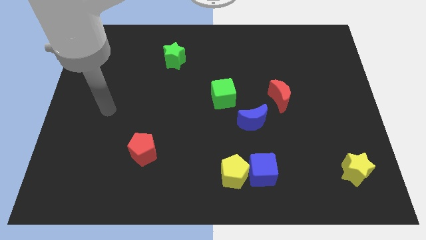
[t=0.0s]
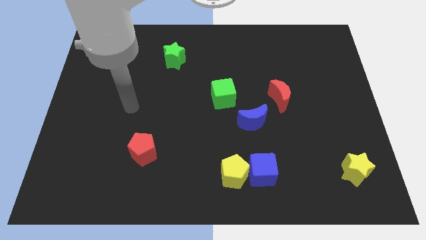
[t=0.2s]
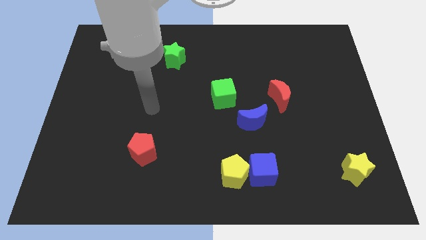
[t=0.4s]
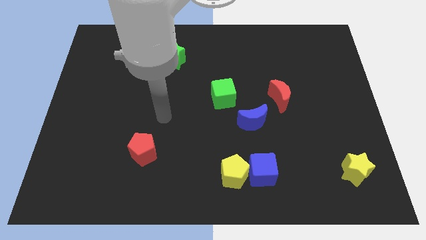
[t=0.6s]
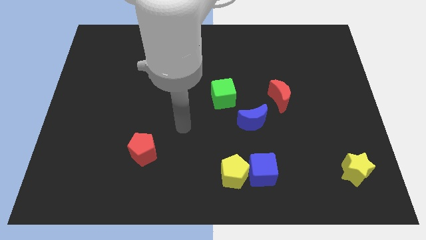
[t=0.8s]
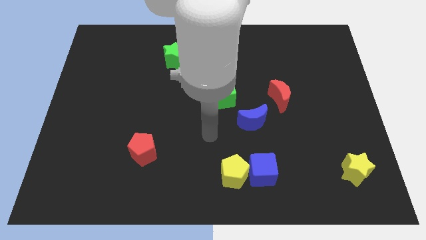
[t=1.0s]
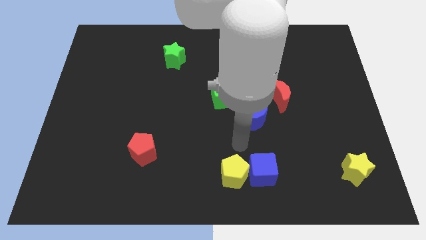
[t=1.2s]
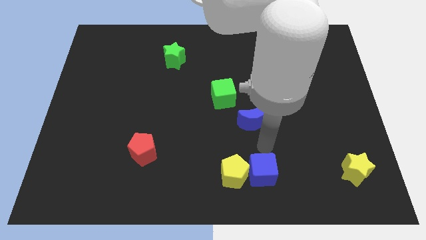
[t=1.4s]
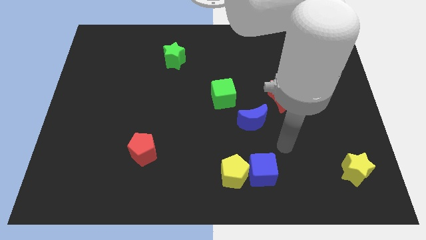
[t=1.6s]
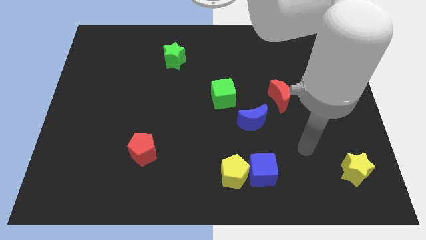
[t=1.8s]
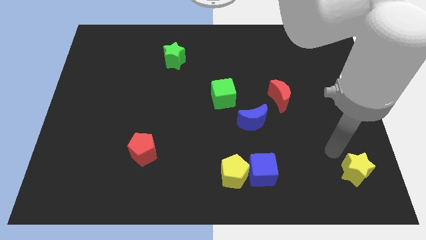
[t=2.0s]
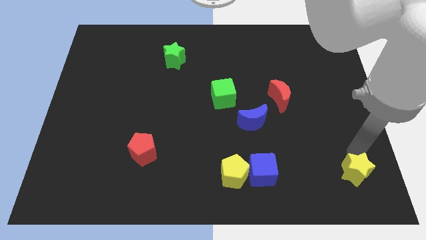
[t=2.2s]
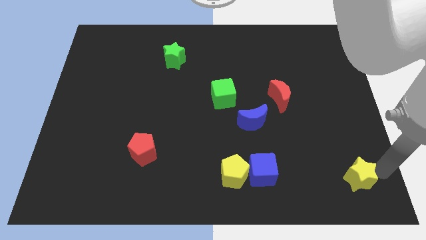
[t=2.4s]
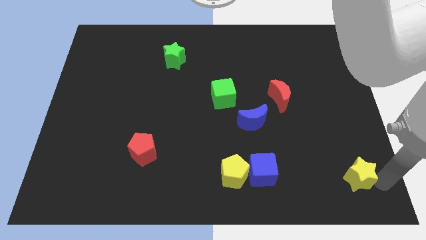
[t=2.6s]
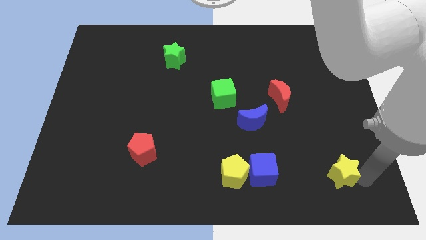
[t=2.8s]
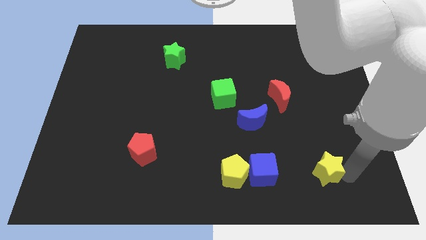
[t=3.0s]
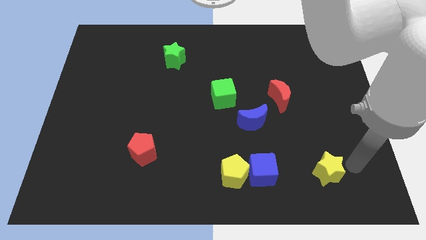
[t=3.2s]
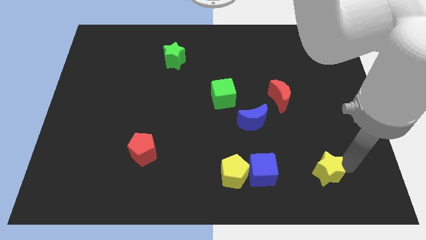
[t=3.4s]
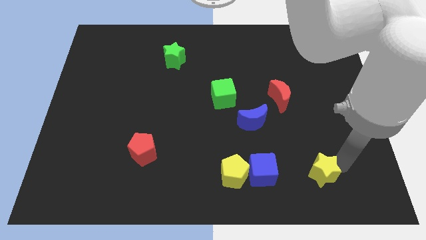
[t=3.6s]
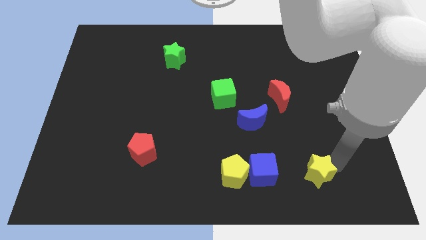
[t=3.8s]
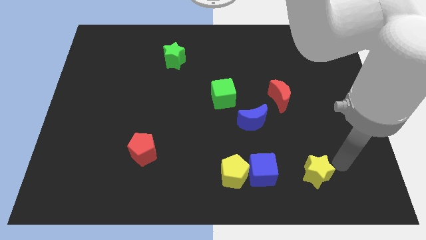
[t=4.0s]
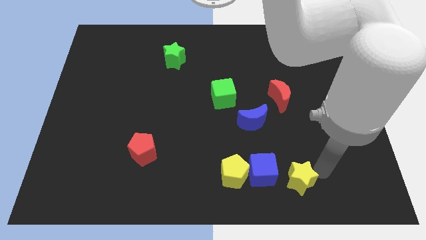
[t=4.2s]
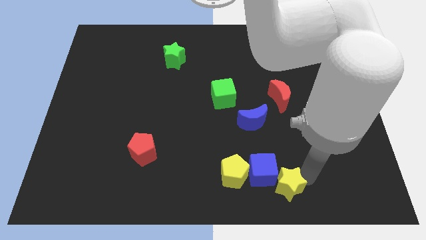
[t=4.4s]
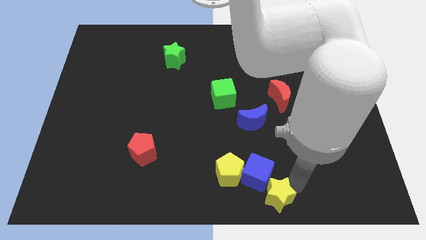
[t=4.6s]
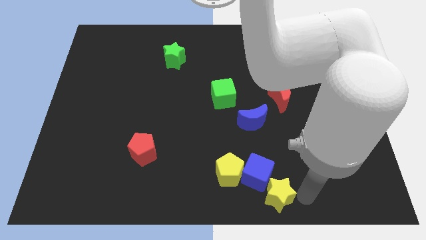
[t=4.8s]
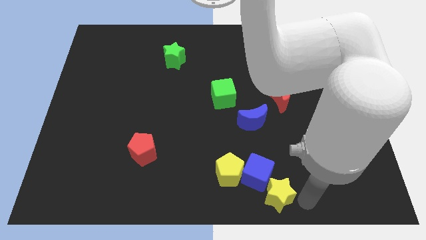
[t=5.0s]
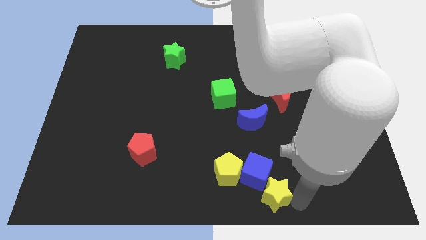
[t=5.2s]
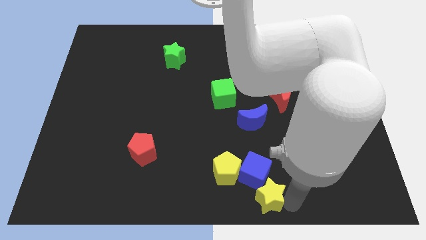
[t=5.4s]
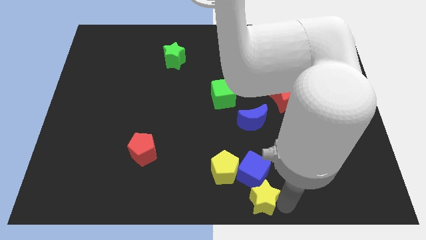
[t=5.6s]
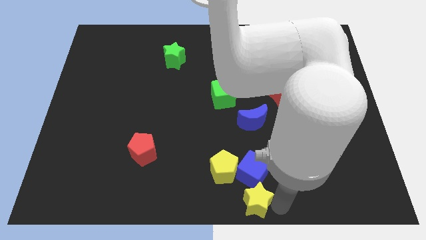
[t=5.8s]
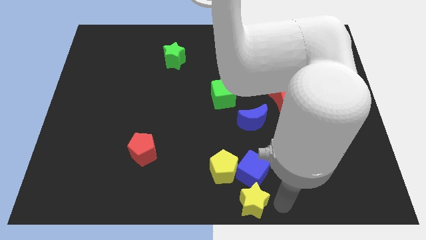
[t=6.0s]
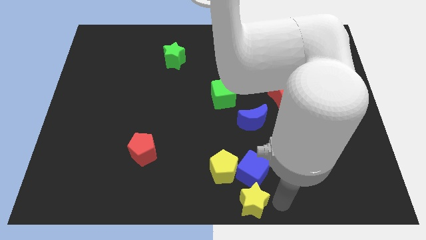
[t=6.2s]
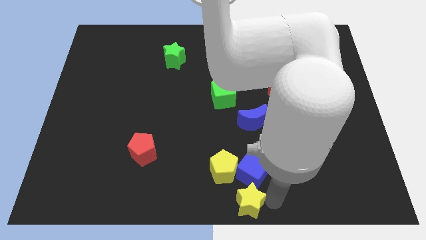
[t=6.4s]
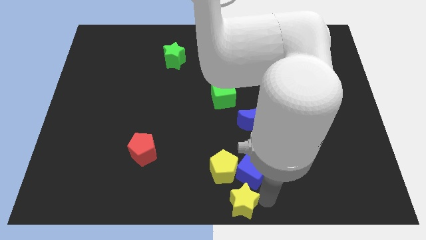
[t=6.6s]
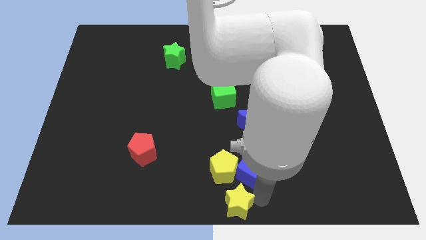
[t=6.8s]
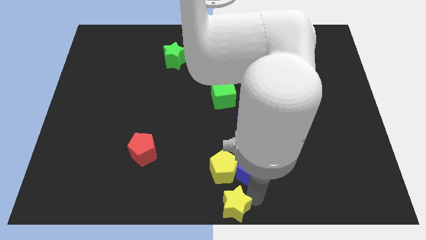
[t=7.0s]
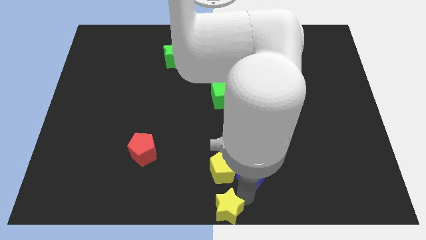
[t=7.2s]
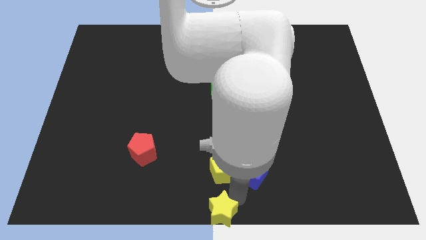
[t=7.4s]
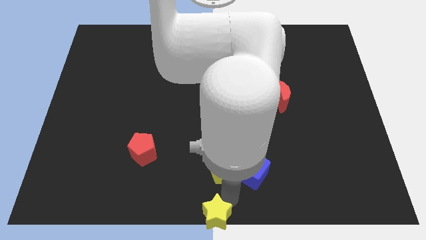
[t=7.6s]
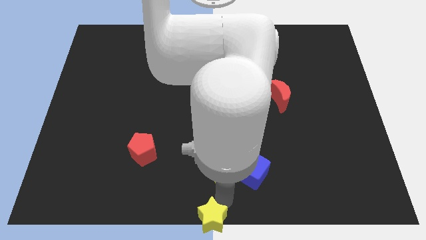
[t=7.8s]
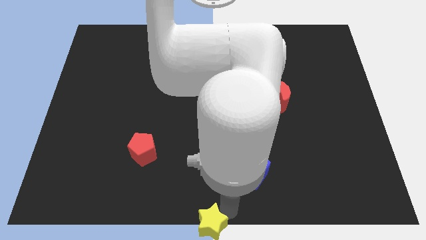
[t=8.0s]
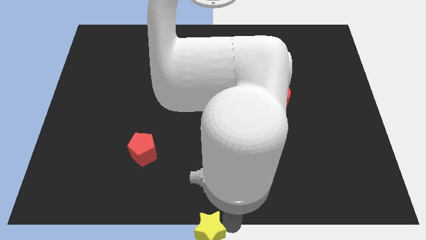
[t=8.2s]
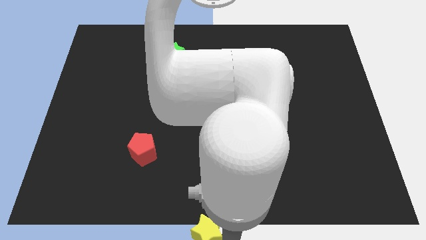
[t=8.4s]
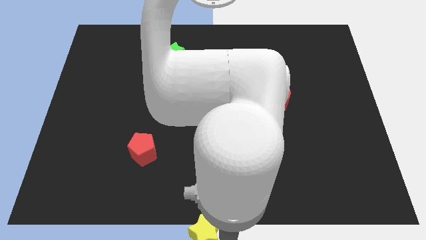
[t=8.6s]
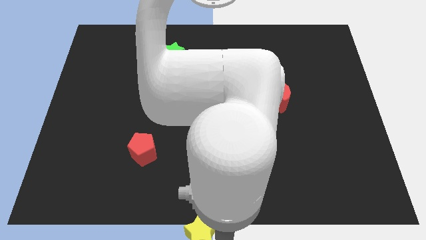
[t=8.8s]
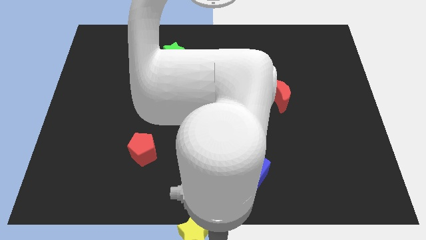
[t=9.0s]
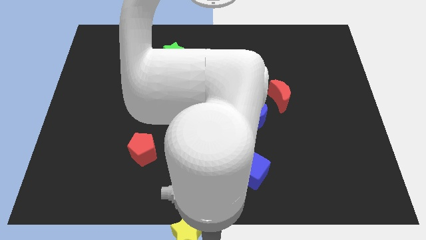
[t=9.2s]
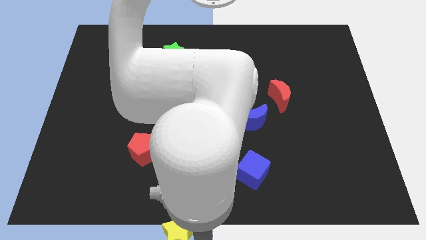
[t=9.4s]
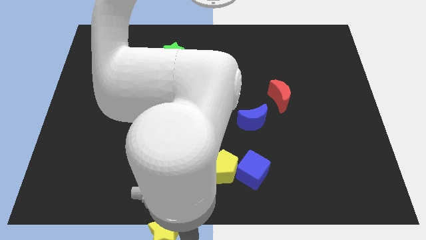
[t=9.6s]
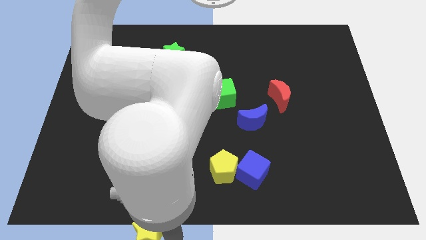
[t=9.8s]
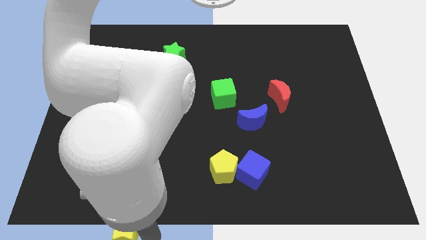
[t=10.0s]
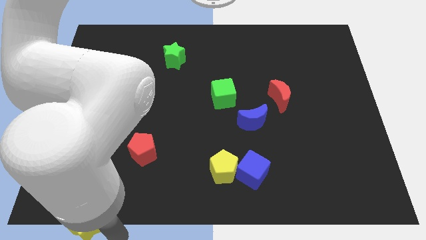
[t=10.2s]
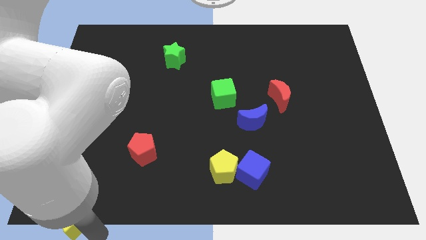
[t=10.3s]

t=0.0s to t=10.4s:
move the yellow star to the bottom left of the board

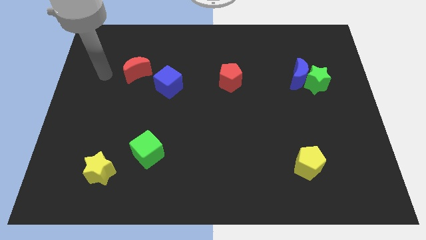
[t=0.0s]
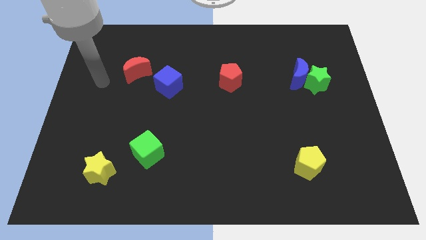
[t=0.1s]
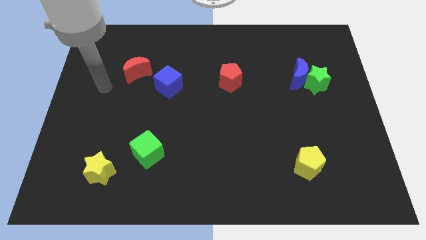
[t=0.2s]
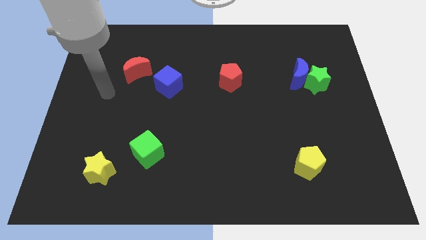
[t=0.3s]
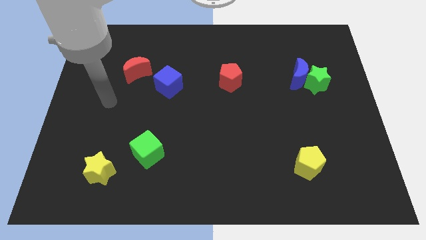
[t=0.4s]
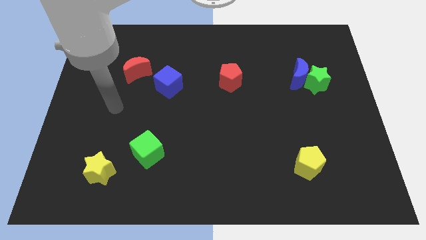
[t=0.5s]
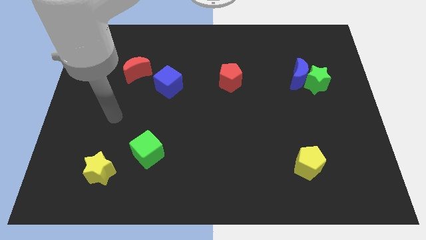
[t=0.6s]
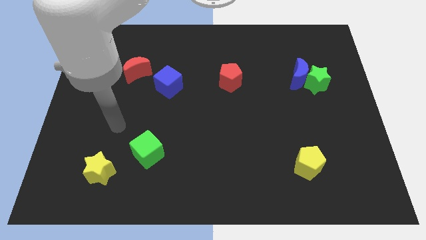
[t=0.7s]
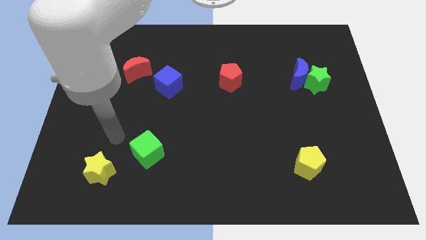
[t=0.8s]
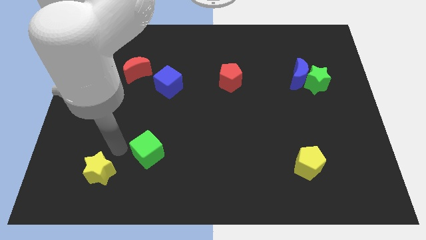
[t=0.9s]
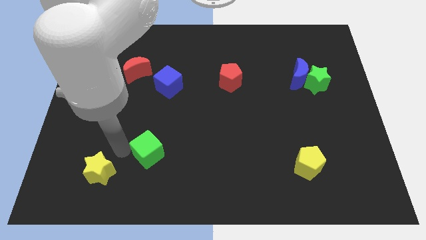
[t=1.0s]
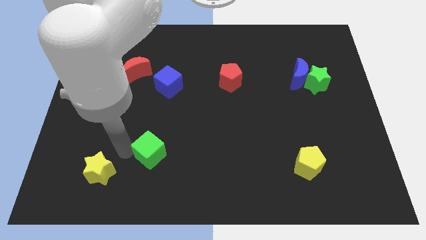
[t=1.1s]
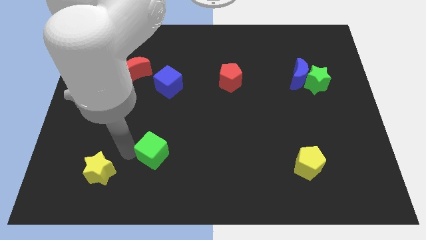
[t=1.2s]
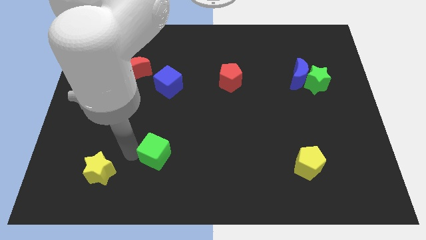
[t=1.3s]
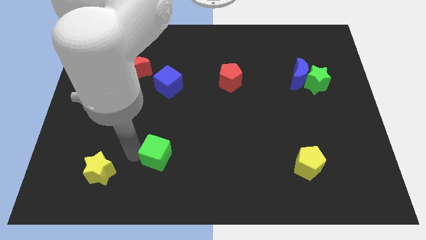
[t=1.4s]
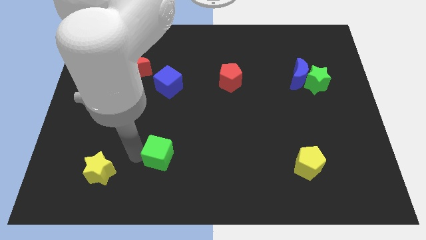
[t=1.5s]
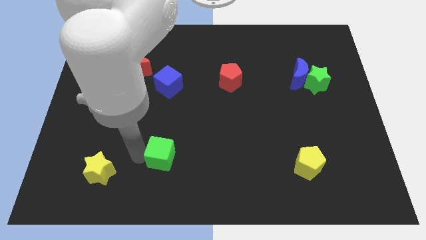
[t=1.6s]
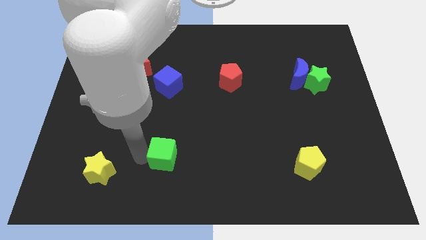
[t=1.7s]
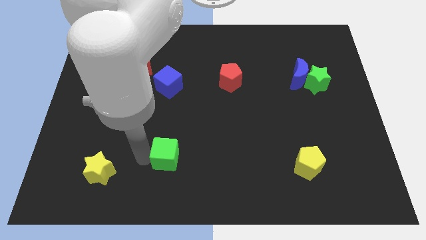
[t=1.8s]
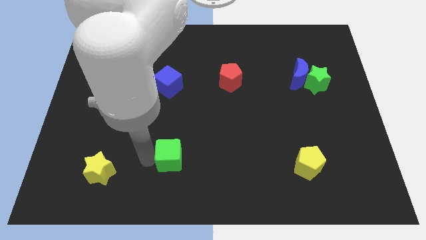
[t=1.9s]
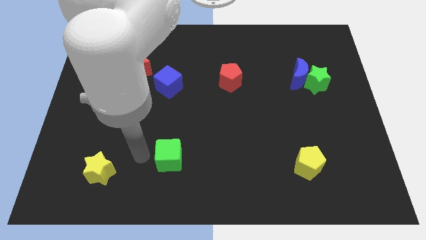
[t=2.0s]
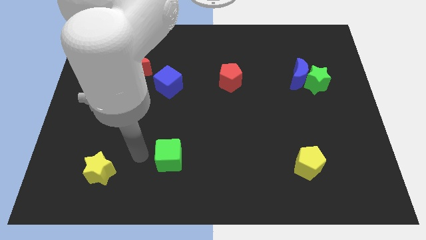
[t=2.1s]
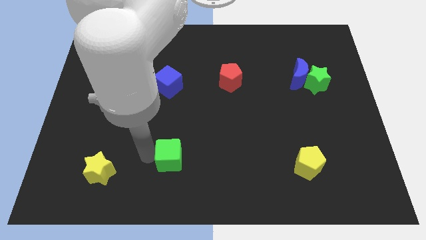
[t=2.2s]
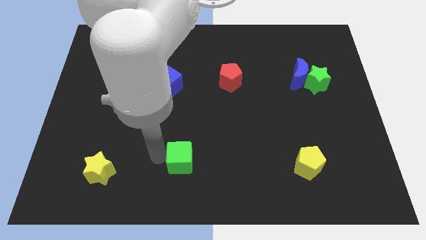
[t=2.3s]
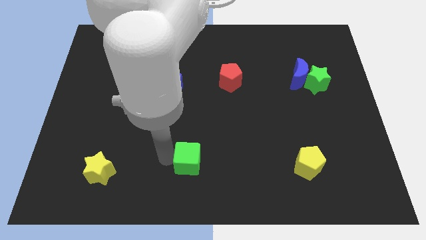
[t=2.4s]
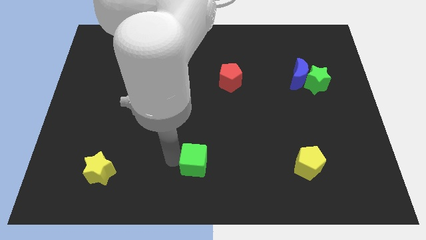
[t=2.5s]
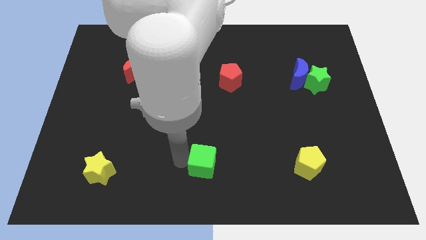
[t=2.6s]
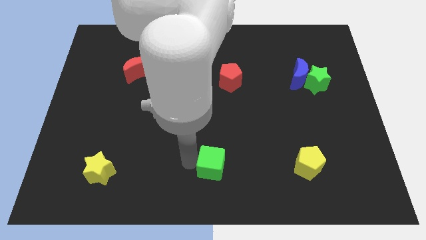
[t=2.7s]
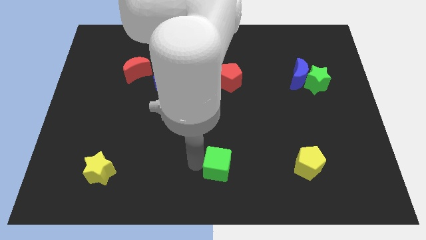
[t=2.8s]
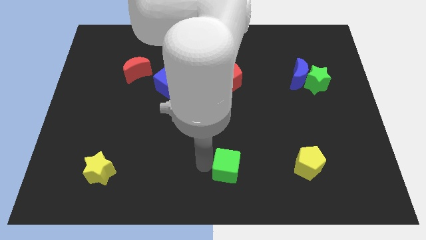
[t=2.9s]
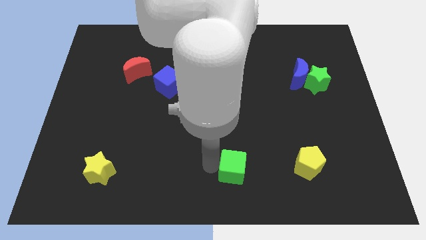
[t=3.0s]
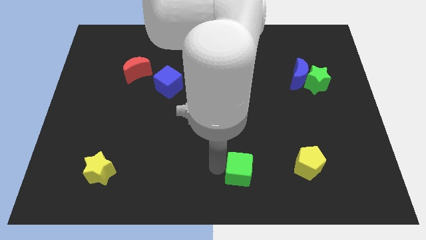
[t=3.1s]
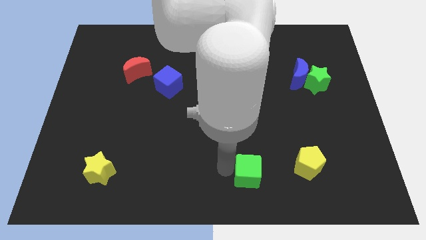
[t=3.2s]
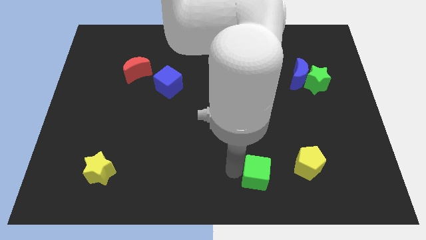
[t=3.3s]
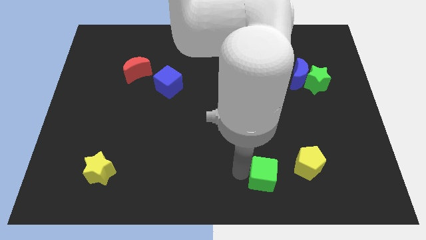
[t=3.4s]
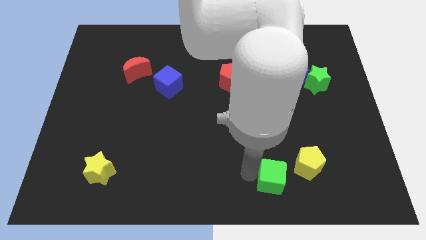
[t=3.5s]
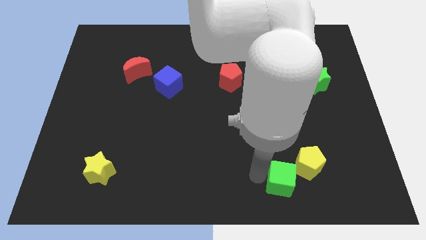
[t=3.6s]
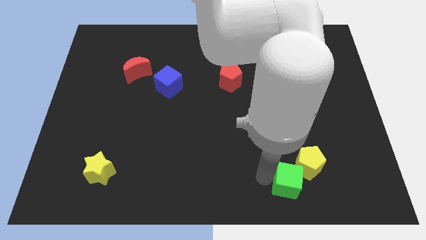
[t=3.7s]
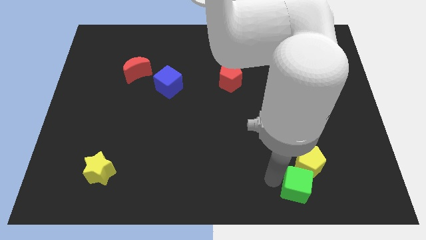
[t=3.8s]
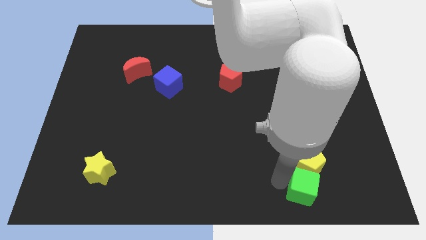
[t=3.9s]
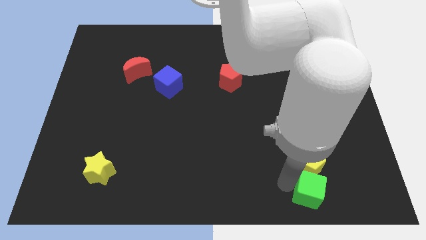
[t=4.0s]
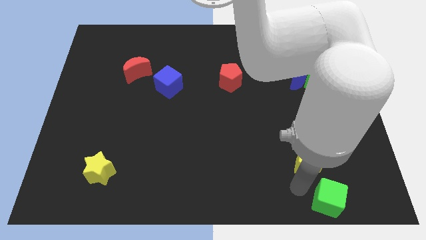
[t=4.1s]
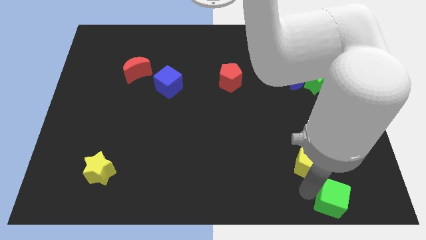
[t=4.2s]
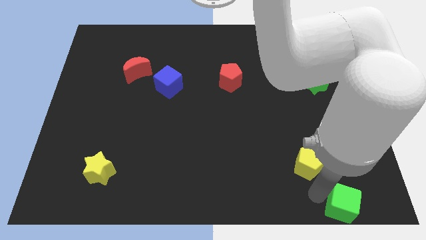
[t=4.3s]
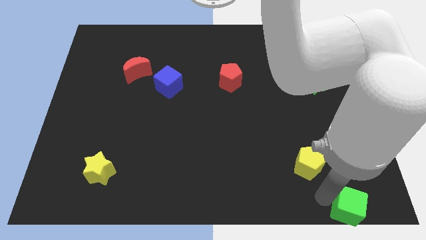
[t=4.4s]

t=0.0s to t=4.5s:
push the green cube to the lower right corner
